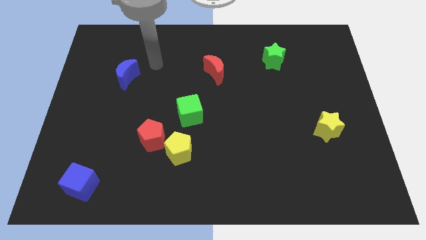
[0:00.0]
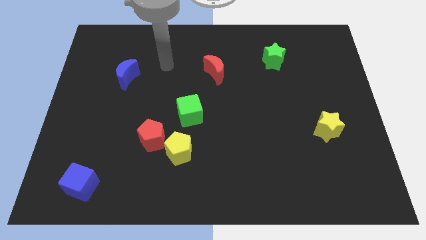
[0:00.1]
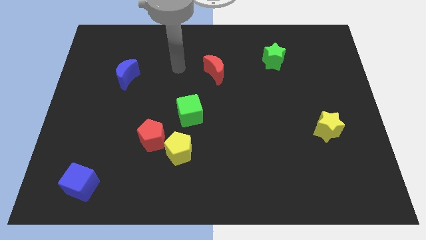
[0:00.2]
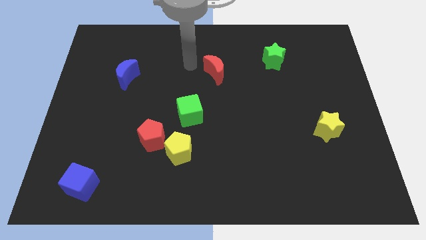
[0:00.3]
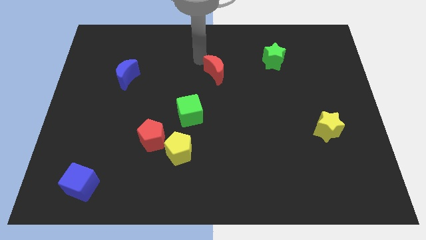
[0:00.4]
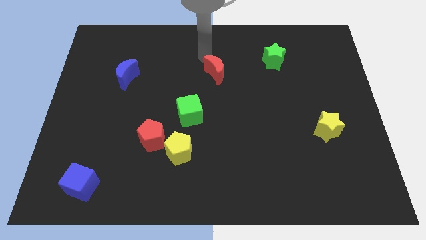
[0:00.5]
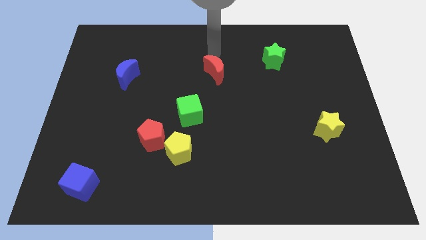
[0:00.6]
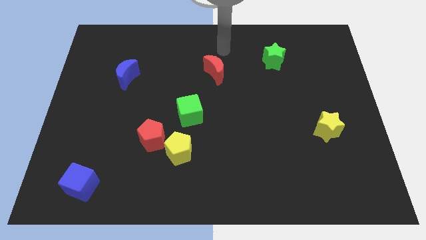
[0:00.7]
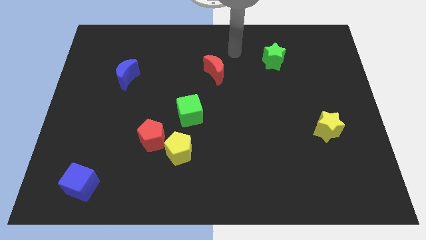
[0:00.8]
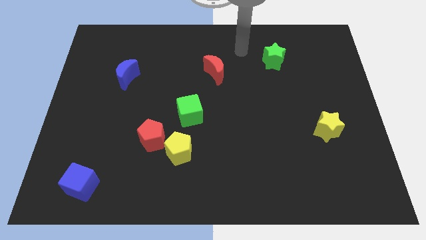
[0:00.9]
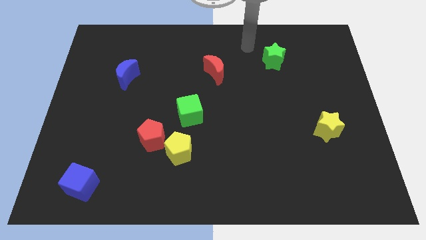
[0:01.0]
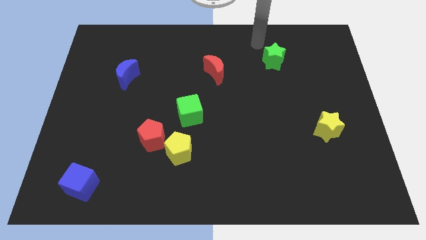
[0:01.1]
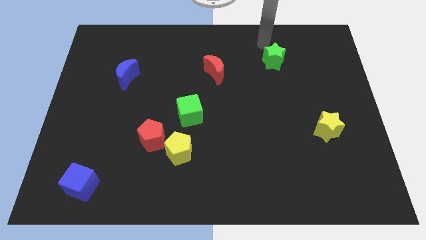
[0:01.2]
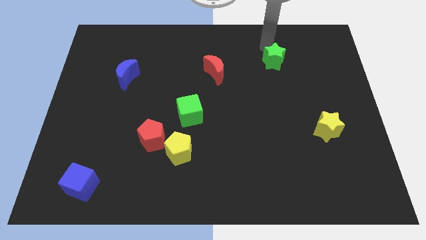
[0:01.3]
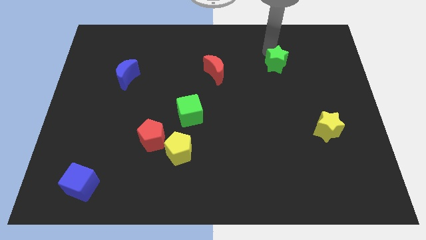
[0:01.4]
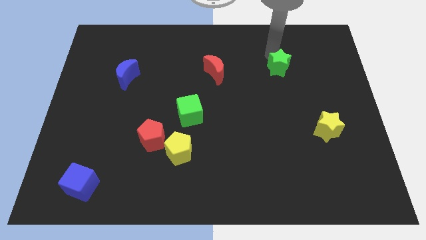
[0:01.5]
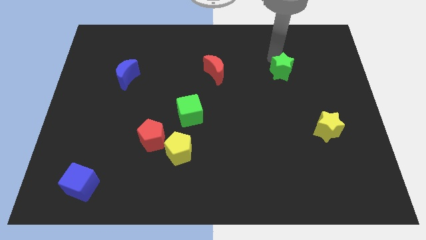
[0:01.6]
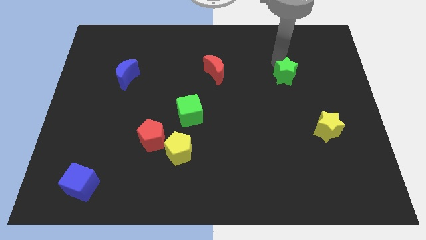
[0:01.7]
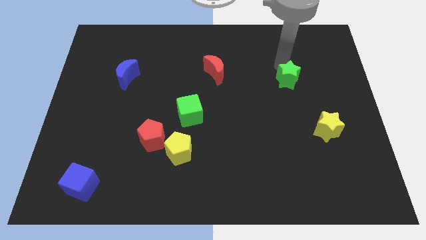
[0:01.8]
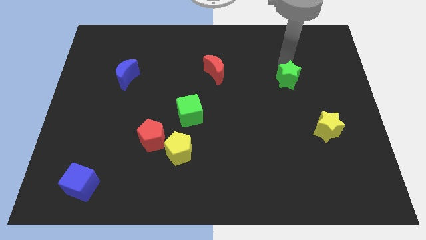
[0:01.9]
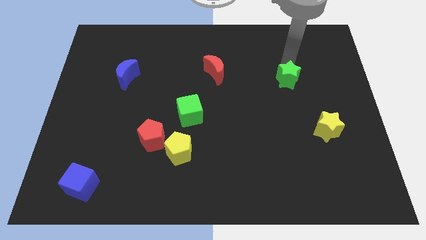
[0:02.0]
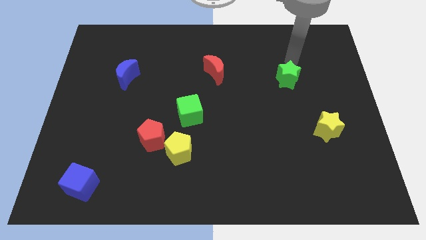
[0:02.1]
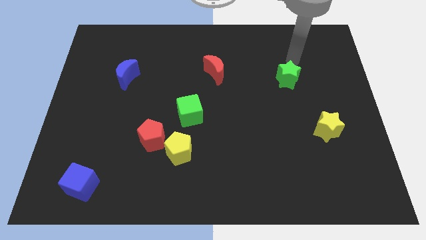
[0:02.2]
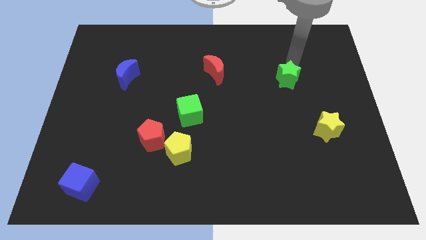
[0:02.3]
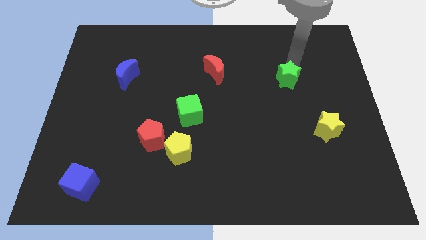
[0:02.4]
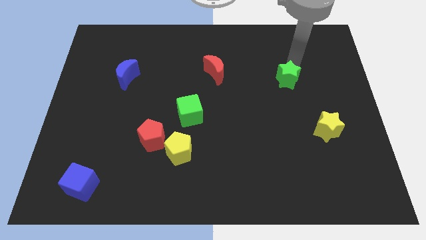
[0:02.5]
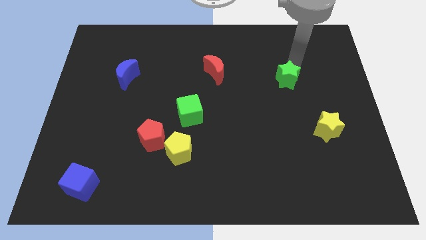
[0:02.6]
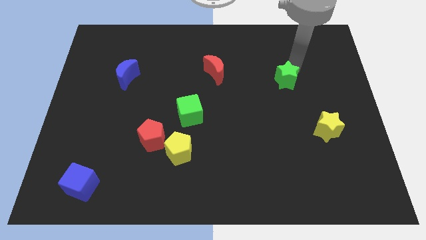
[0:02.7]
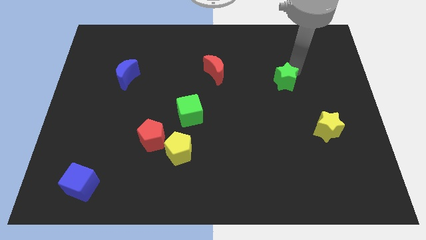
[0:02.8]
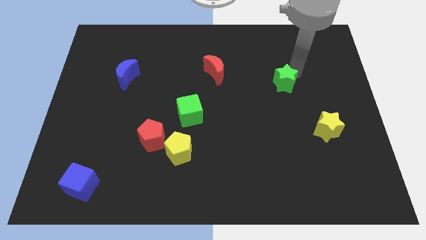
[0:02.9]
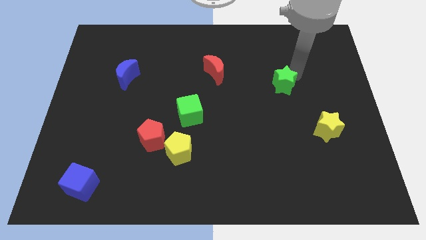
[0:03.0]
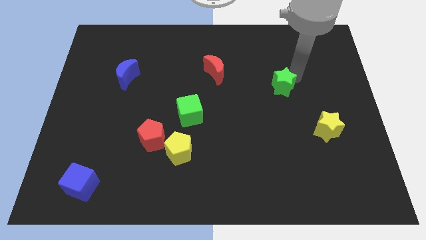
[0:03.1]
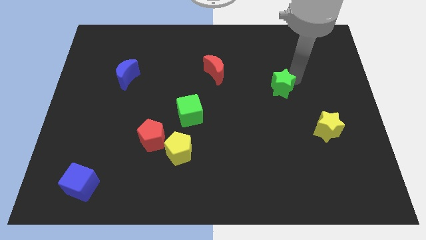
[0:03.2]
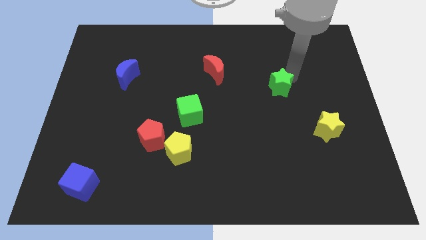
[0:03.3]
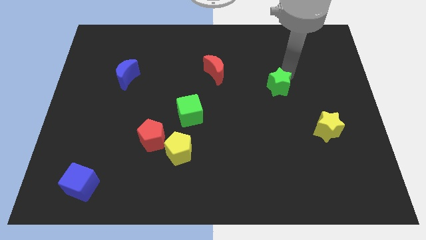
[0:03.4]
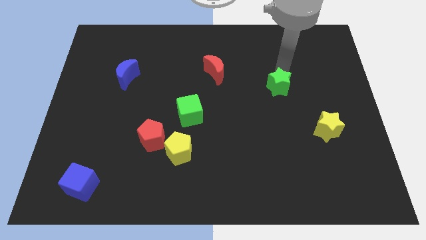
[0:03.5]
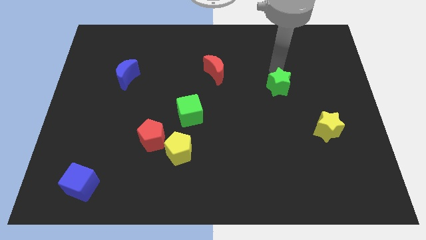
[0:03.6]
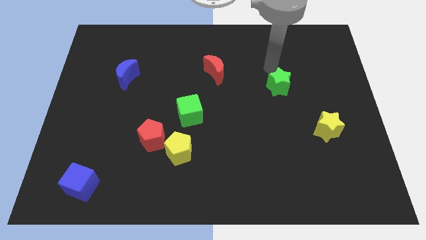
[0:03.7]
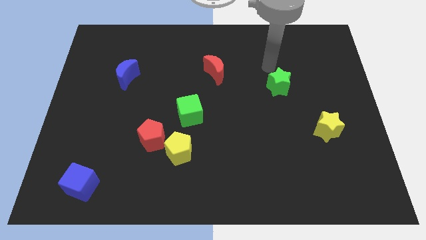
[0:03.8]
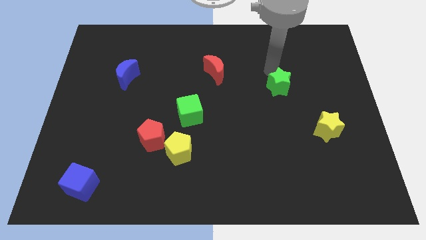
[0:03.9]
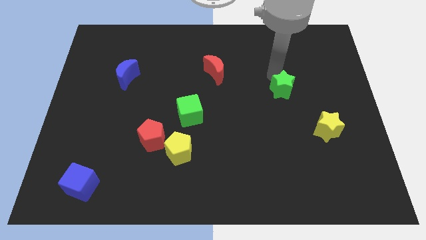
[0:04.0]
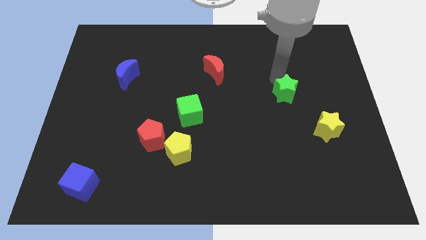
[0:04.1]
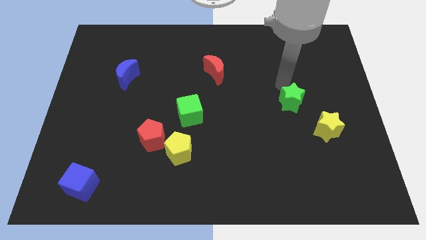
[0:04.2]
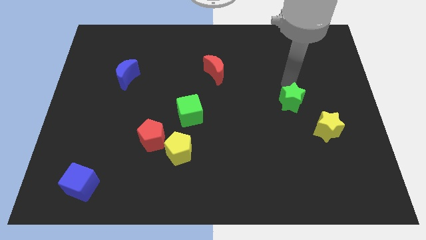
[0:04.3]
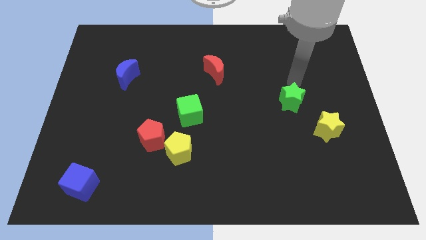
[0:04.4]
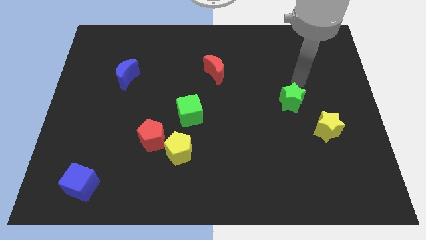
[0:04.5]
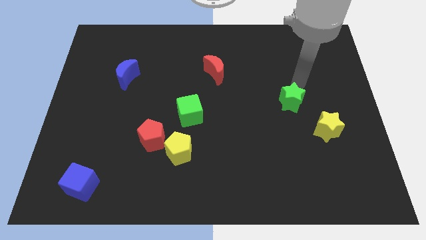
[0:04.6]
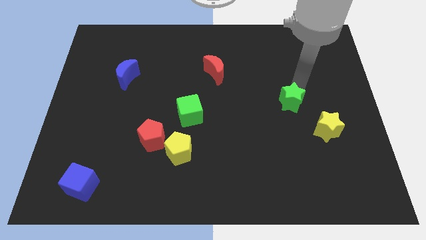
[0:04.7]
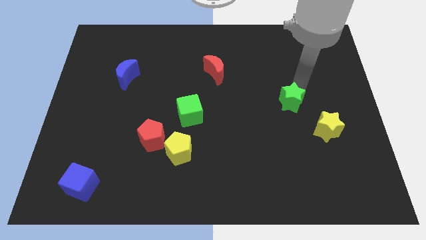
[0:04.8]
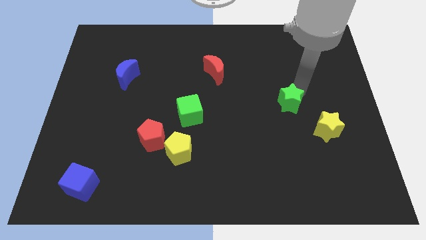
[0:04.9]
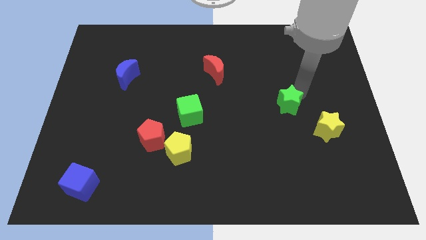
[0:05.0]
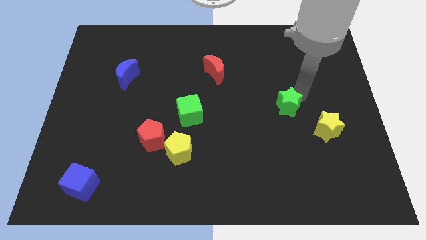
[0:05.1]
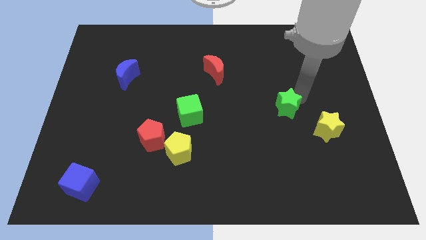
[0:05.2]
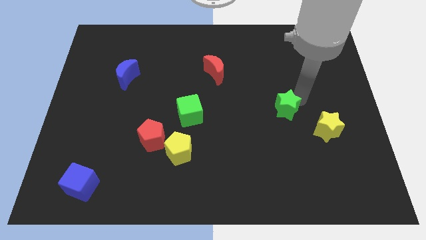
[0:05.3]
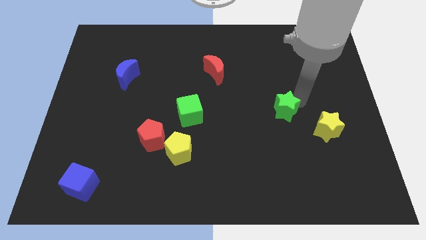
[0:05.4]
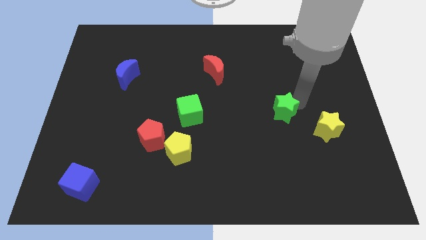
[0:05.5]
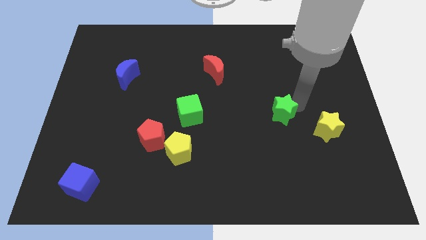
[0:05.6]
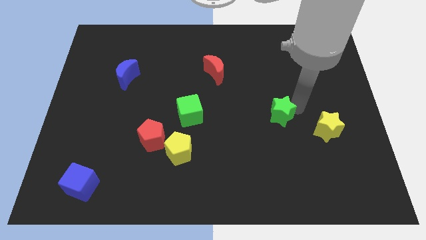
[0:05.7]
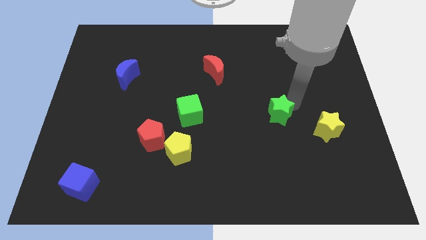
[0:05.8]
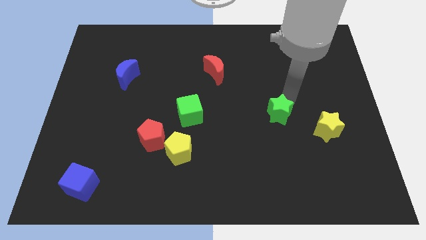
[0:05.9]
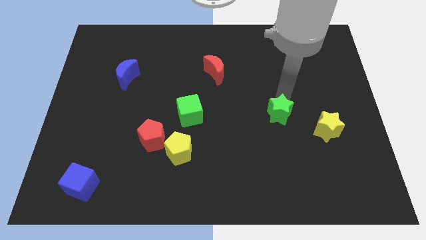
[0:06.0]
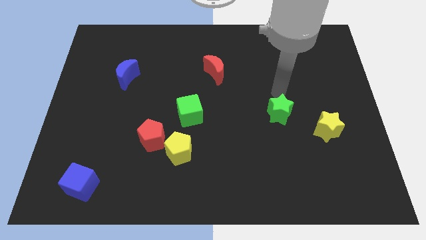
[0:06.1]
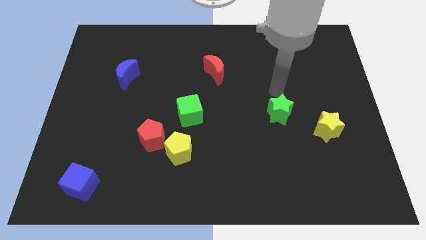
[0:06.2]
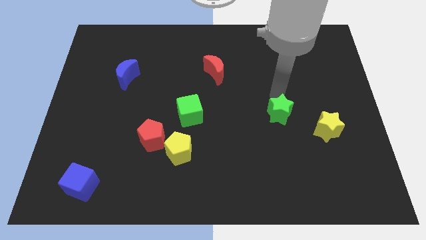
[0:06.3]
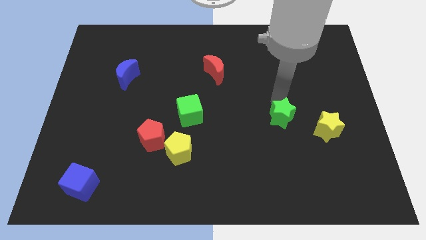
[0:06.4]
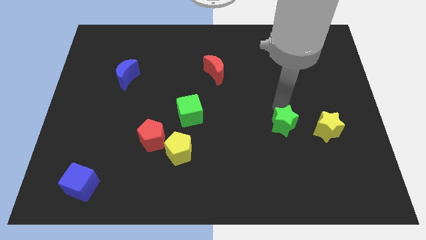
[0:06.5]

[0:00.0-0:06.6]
push the green star downwards

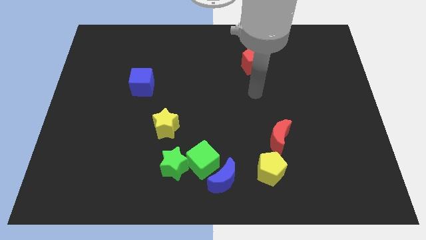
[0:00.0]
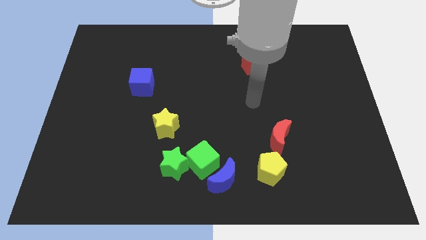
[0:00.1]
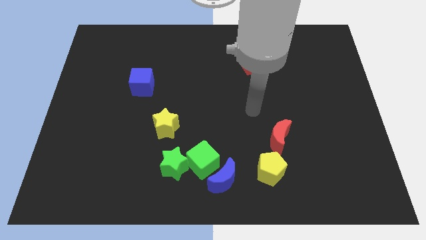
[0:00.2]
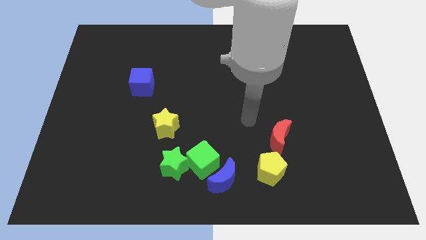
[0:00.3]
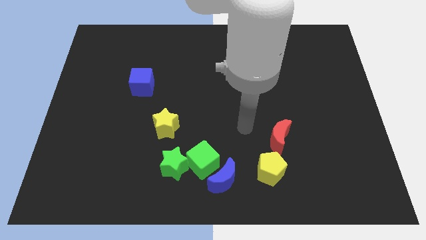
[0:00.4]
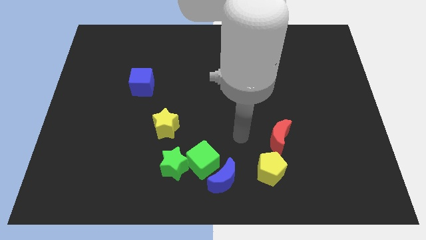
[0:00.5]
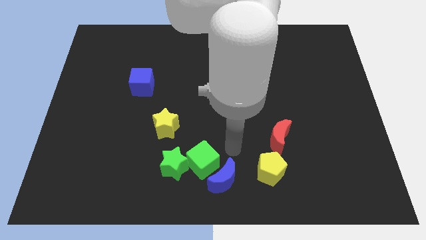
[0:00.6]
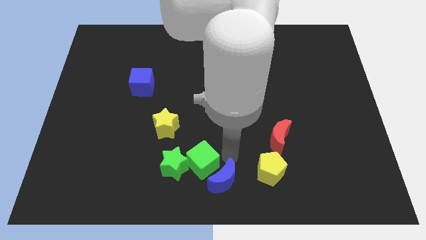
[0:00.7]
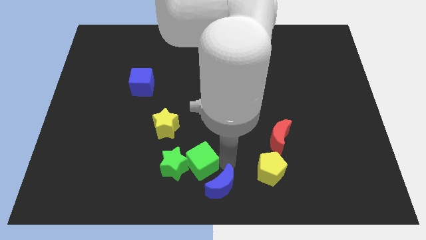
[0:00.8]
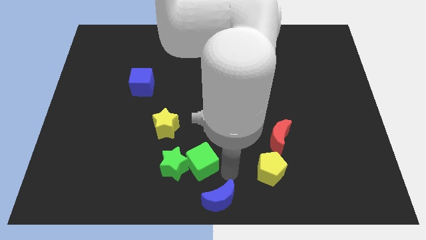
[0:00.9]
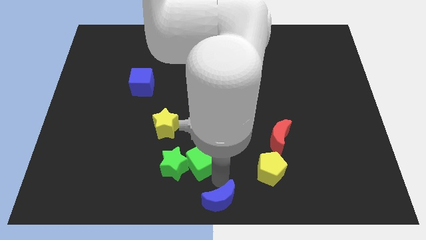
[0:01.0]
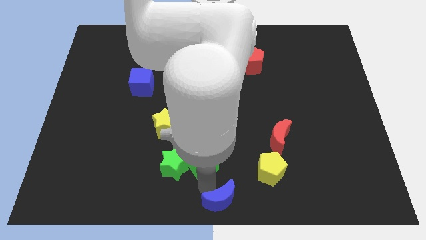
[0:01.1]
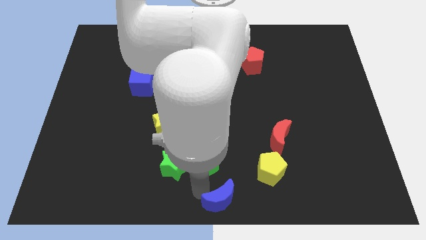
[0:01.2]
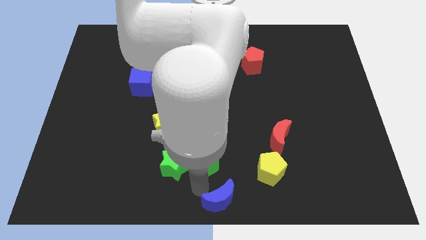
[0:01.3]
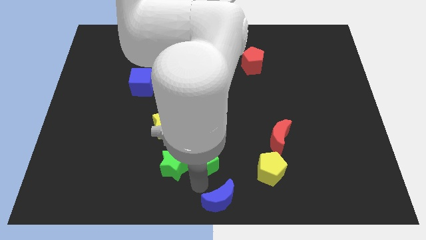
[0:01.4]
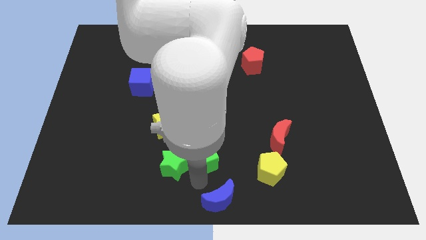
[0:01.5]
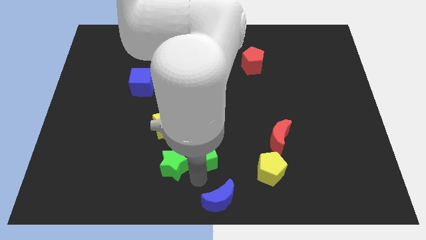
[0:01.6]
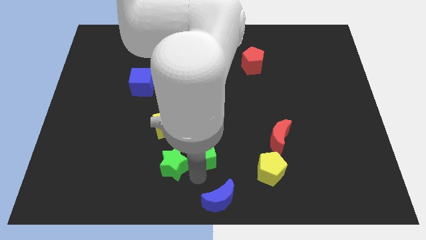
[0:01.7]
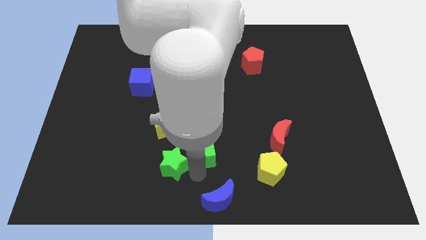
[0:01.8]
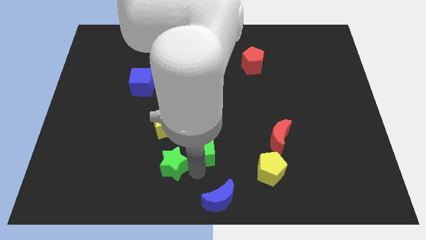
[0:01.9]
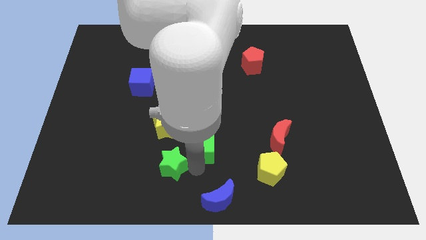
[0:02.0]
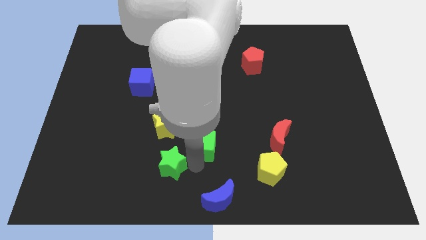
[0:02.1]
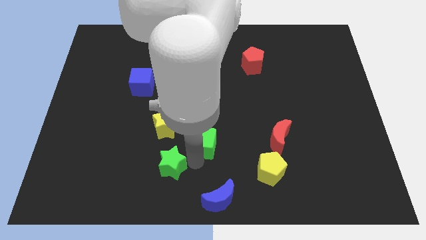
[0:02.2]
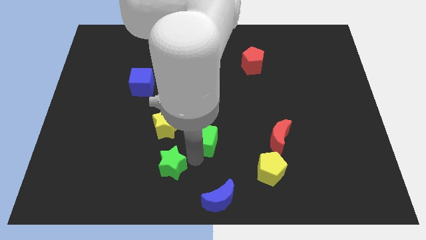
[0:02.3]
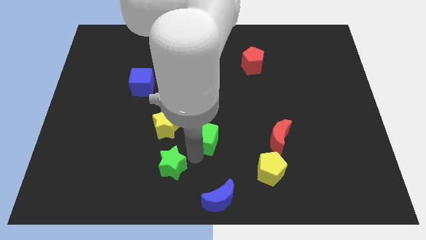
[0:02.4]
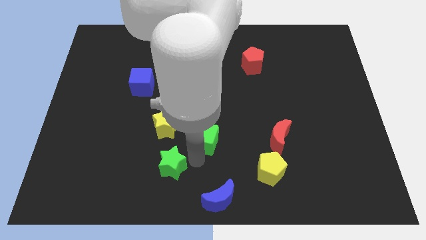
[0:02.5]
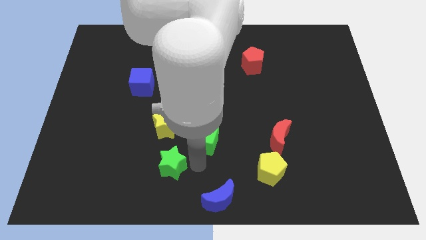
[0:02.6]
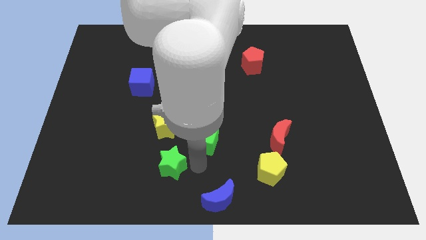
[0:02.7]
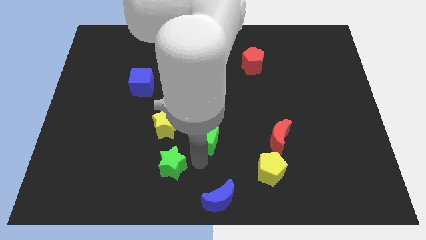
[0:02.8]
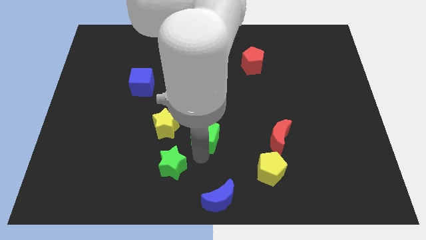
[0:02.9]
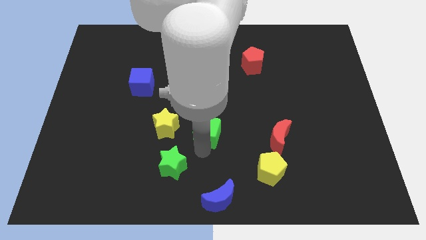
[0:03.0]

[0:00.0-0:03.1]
slide the green cube upwards a little
